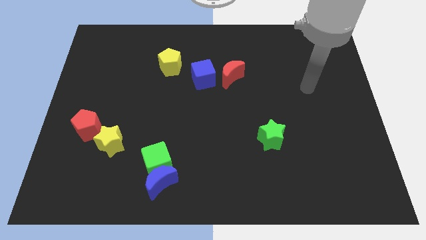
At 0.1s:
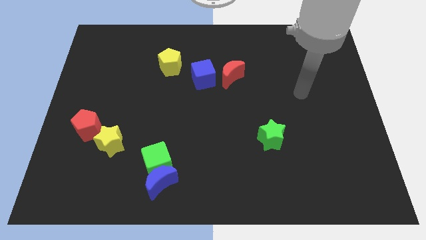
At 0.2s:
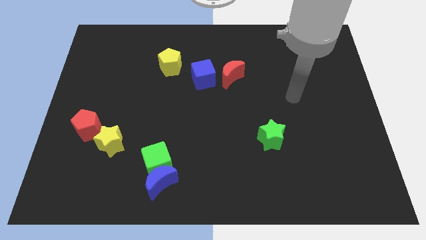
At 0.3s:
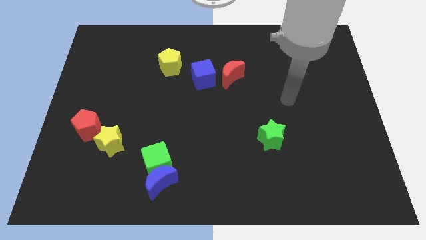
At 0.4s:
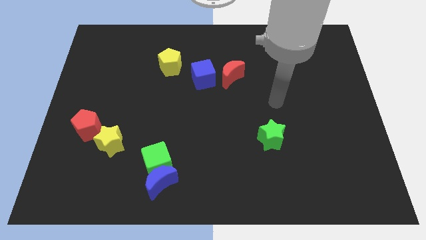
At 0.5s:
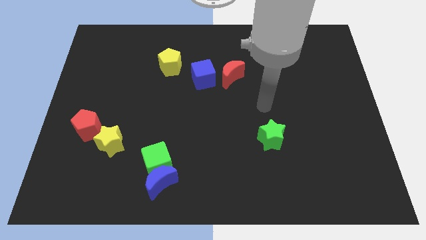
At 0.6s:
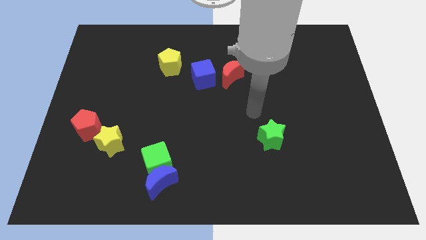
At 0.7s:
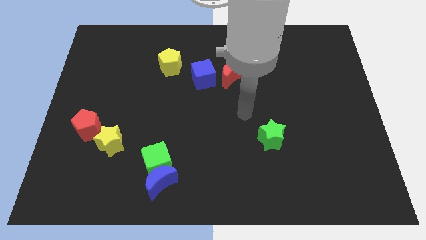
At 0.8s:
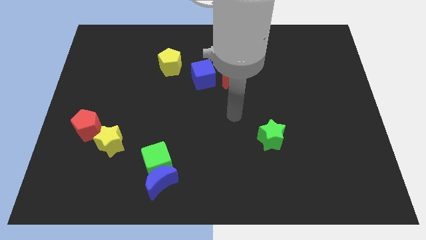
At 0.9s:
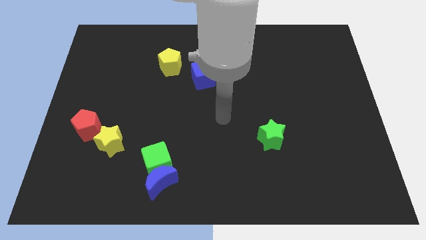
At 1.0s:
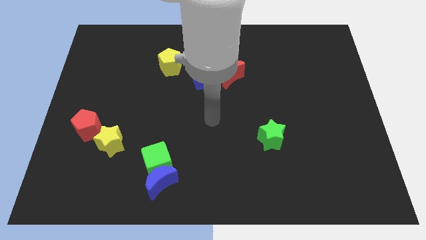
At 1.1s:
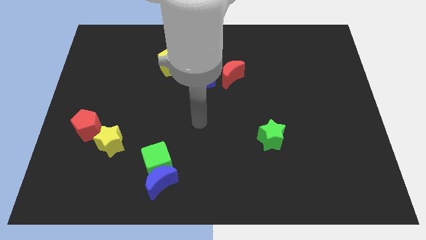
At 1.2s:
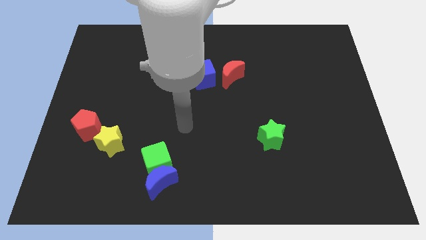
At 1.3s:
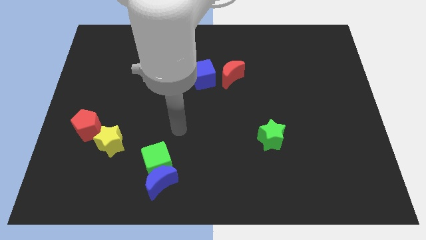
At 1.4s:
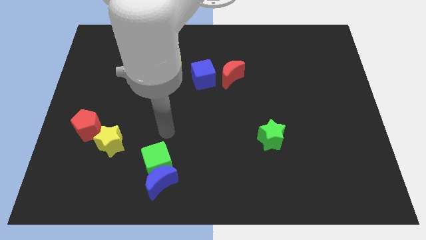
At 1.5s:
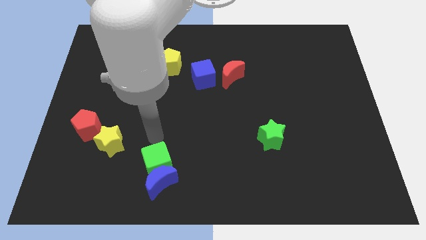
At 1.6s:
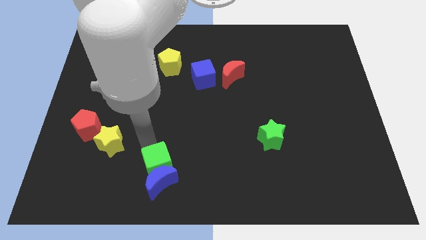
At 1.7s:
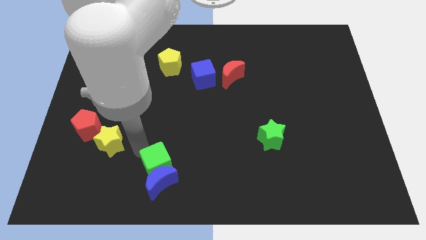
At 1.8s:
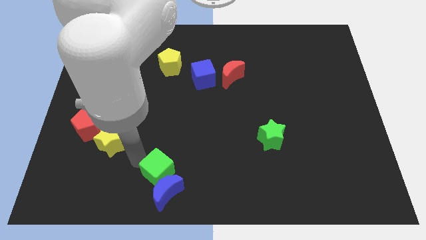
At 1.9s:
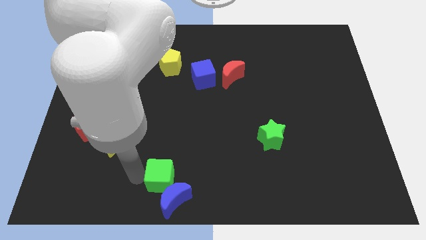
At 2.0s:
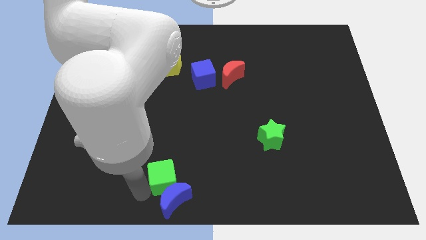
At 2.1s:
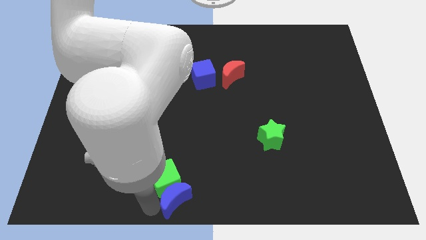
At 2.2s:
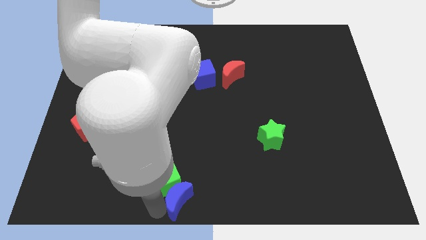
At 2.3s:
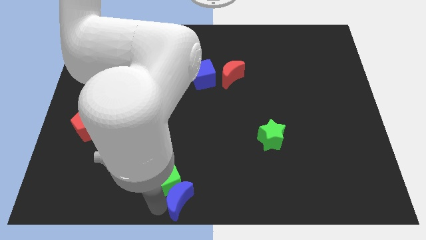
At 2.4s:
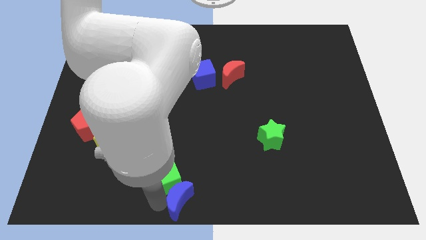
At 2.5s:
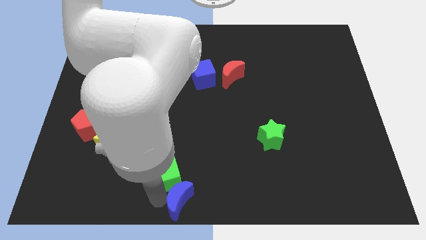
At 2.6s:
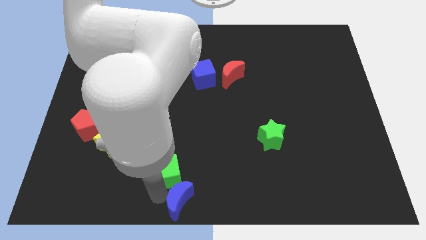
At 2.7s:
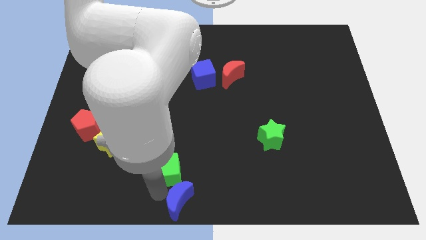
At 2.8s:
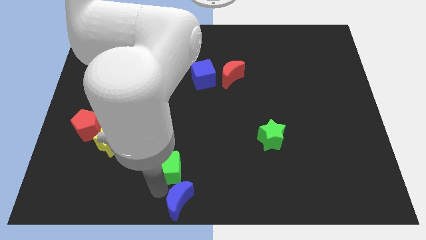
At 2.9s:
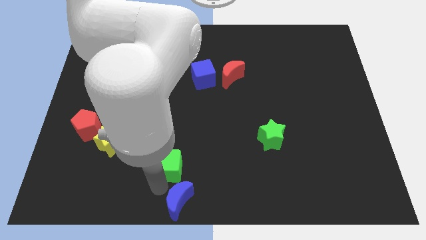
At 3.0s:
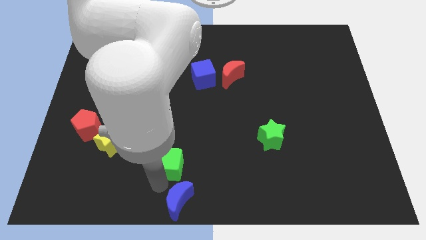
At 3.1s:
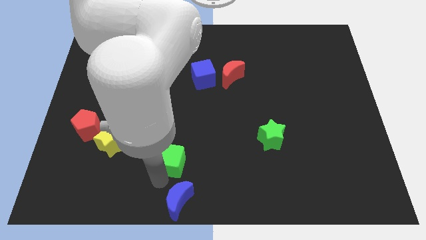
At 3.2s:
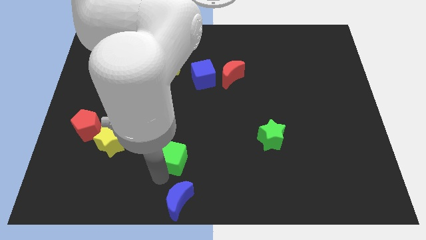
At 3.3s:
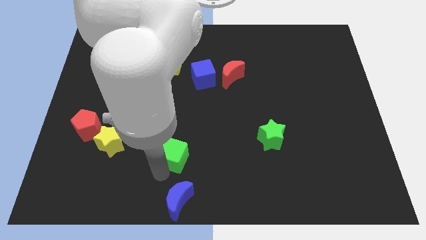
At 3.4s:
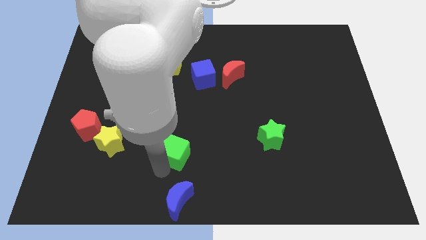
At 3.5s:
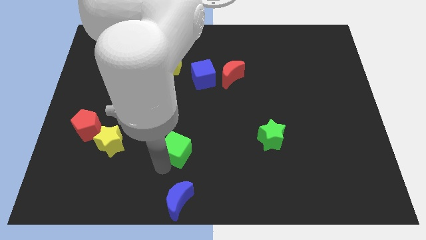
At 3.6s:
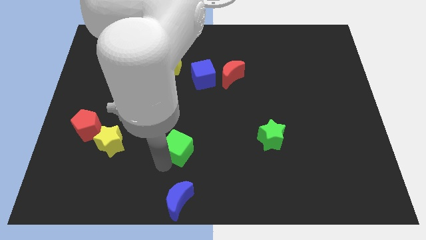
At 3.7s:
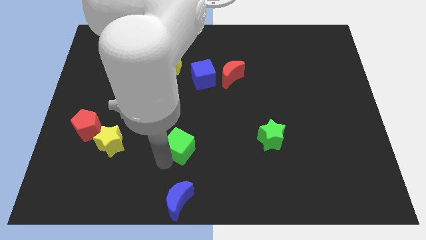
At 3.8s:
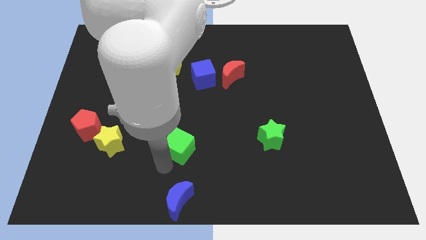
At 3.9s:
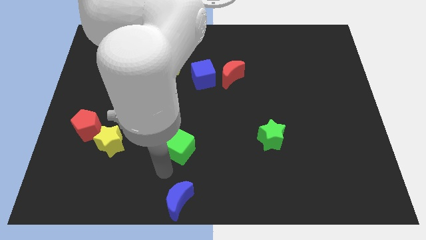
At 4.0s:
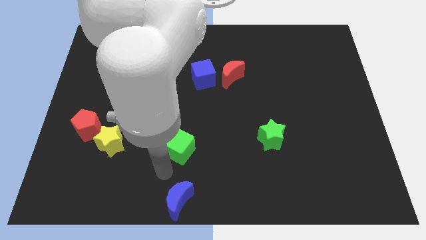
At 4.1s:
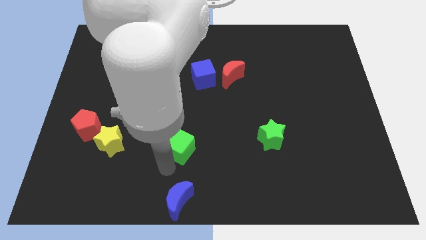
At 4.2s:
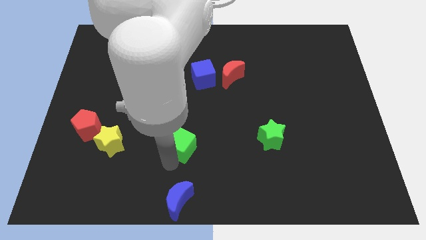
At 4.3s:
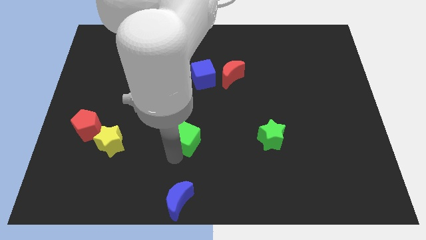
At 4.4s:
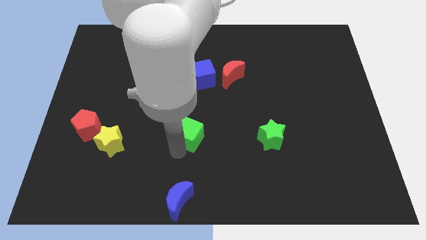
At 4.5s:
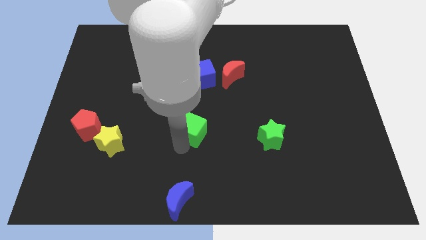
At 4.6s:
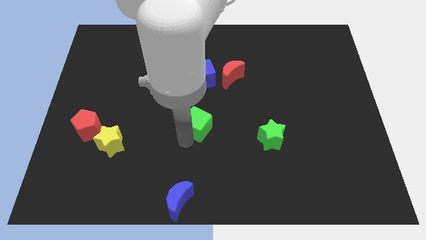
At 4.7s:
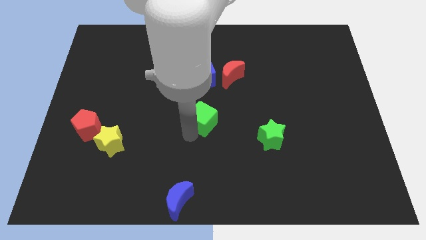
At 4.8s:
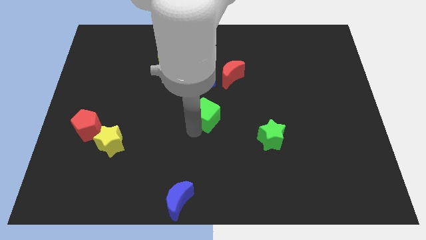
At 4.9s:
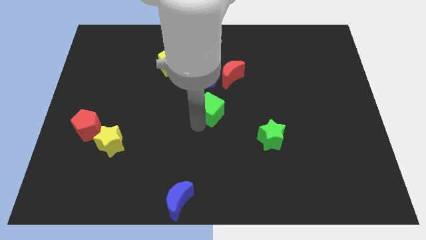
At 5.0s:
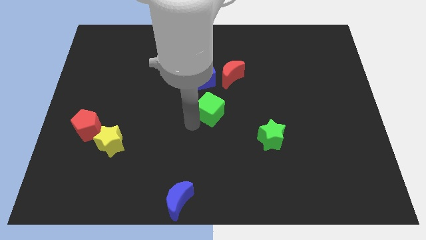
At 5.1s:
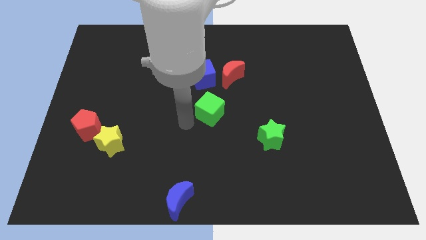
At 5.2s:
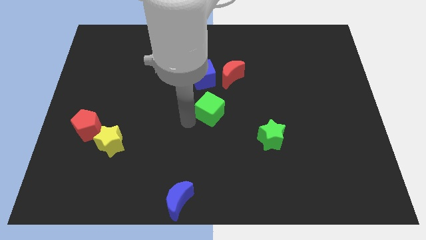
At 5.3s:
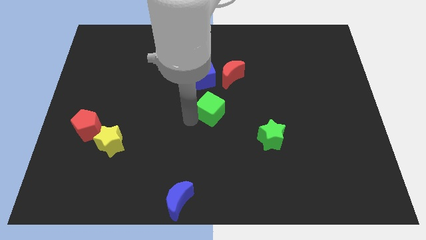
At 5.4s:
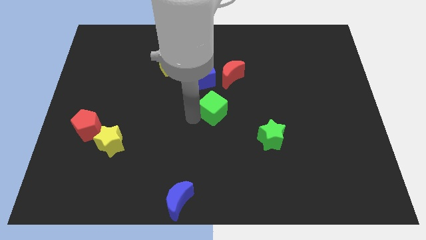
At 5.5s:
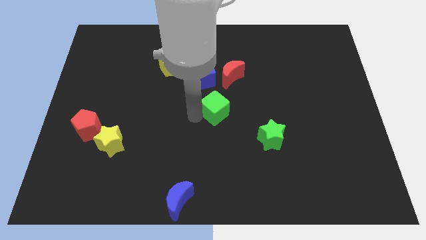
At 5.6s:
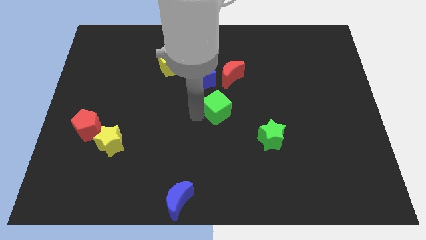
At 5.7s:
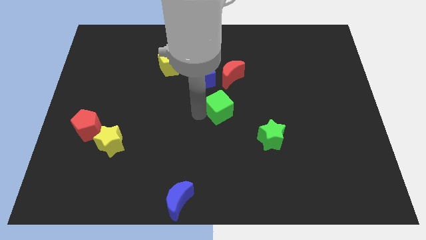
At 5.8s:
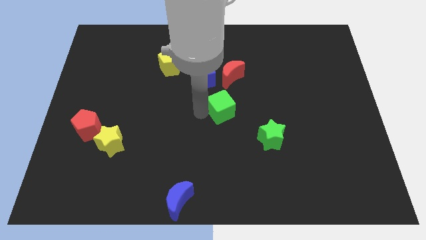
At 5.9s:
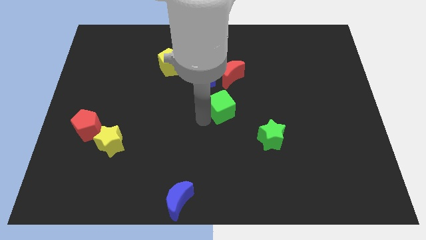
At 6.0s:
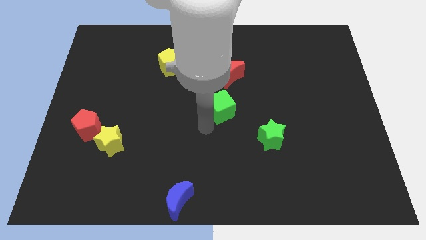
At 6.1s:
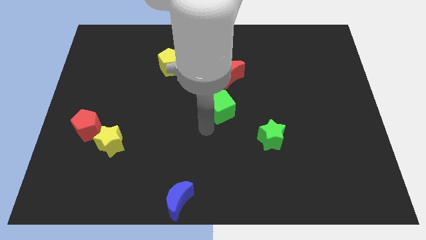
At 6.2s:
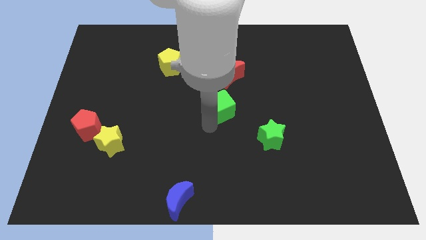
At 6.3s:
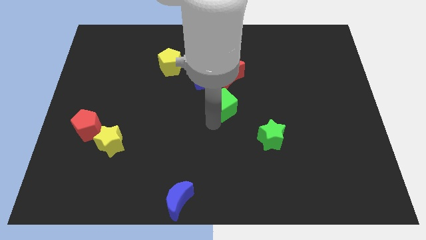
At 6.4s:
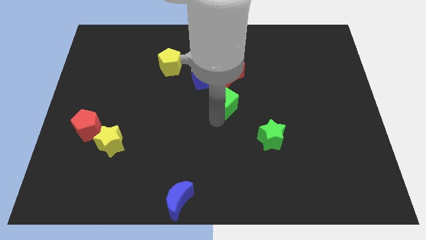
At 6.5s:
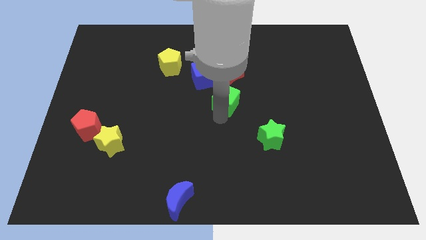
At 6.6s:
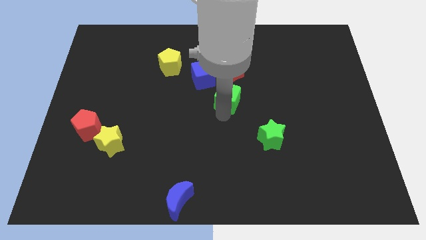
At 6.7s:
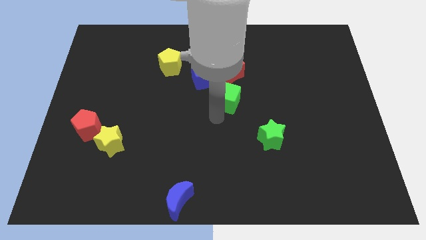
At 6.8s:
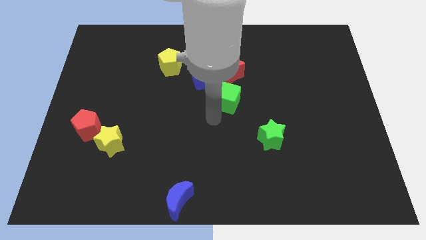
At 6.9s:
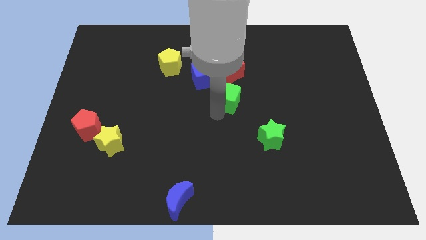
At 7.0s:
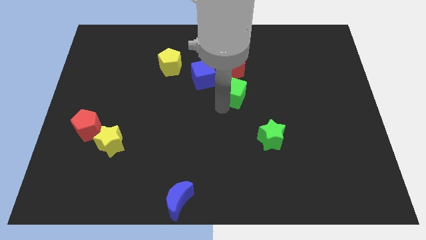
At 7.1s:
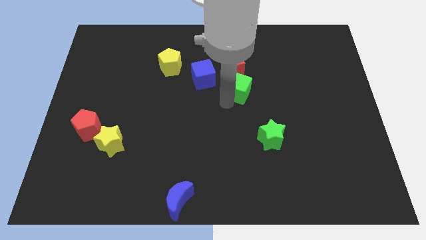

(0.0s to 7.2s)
move the green cube just right of the blue cube
